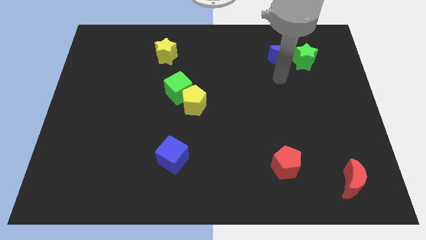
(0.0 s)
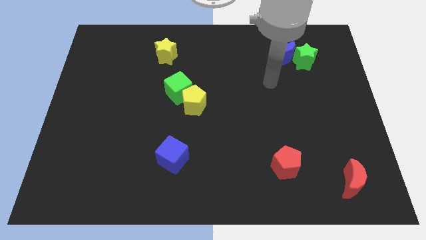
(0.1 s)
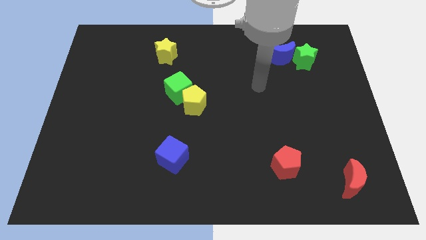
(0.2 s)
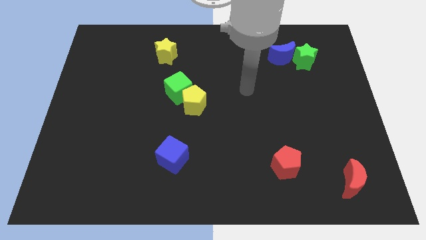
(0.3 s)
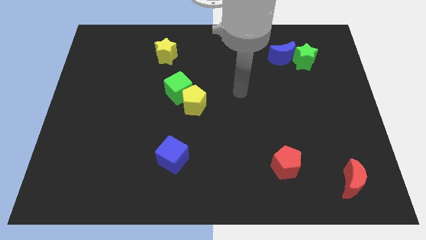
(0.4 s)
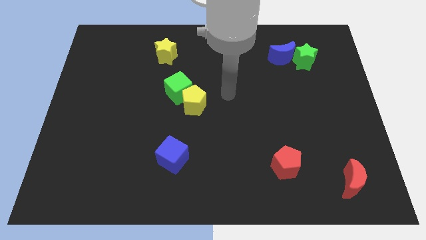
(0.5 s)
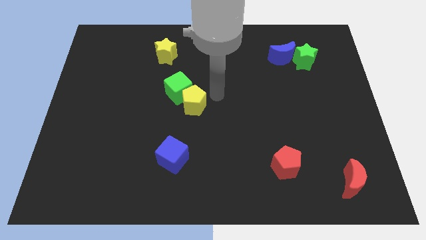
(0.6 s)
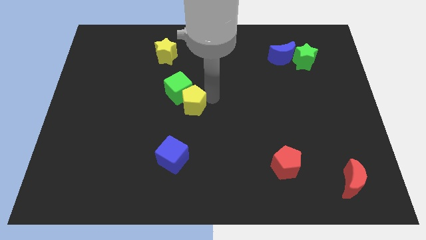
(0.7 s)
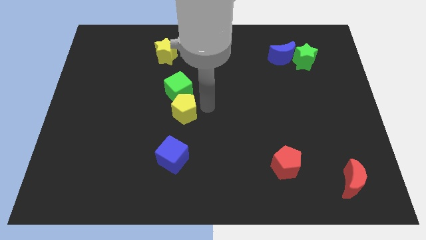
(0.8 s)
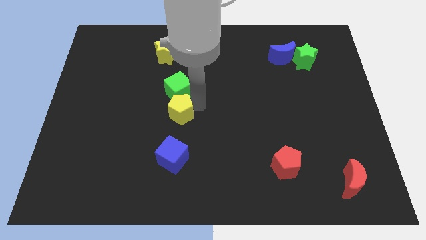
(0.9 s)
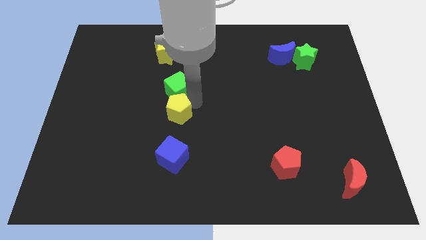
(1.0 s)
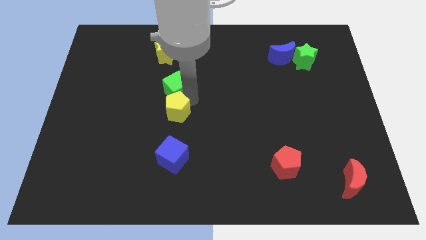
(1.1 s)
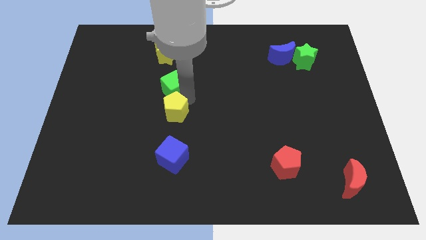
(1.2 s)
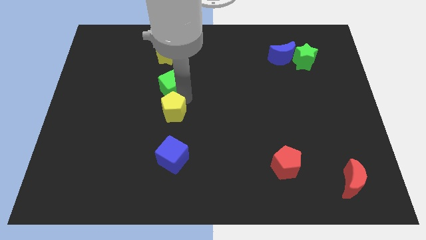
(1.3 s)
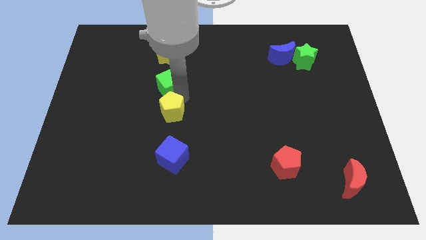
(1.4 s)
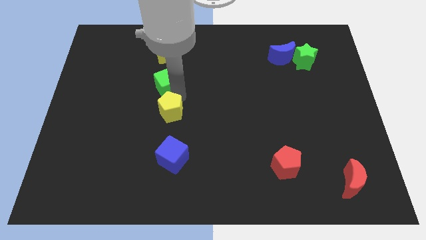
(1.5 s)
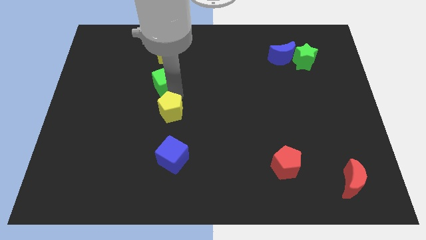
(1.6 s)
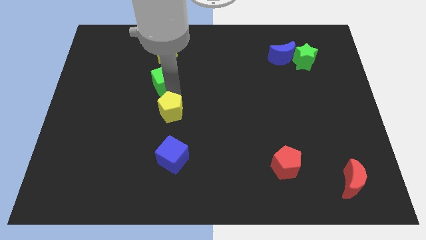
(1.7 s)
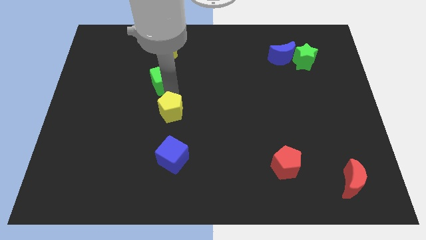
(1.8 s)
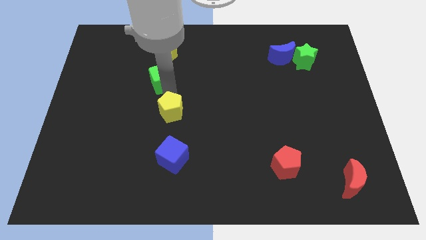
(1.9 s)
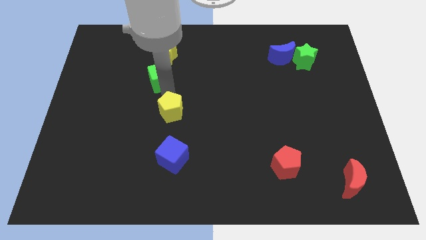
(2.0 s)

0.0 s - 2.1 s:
pull the green cube apart from the yellow pentagon

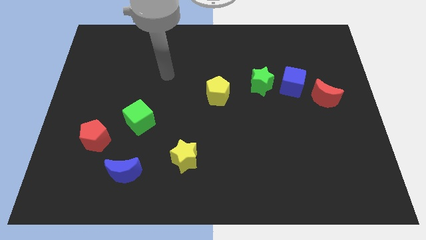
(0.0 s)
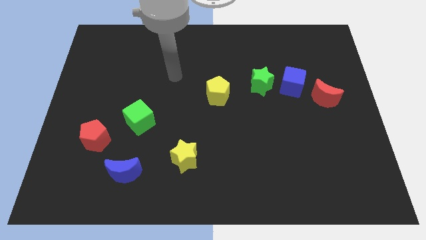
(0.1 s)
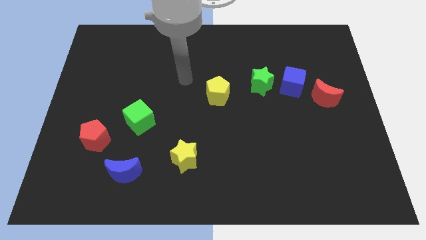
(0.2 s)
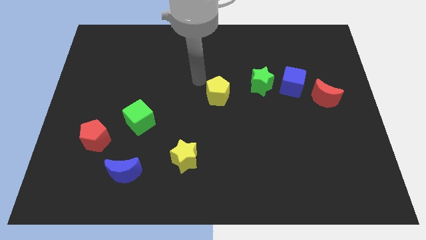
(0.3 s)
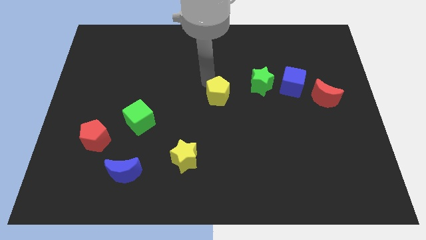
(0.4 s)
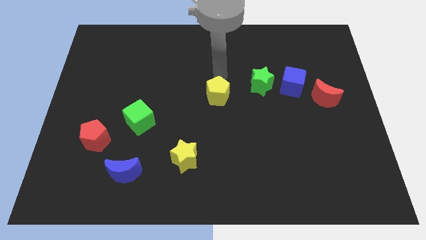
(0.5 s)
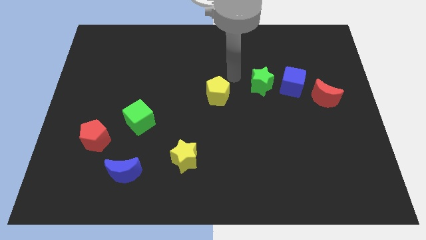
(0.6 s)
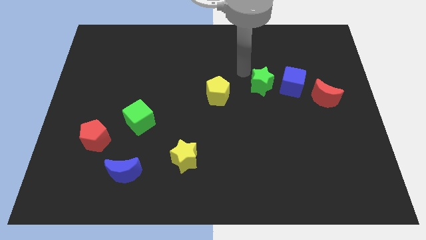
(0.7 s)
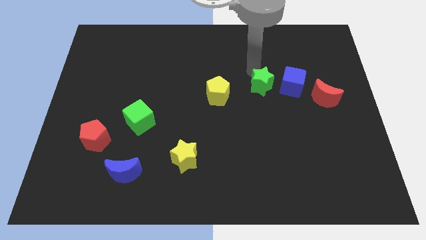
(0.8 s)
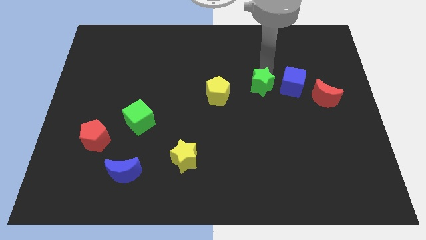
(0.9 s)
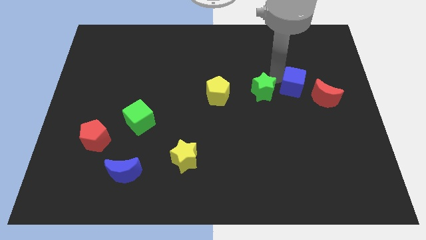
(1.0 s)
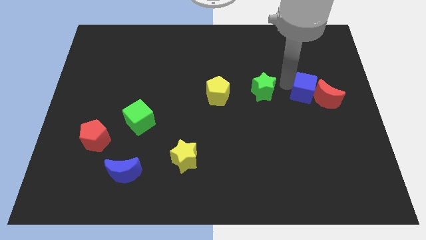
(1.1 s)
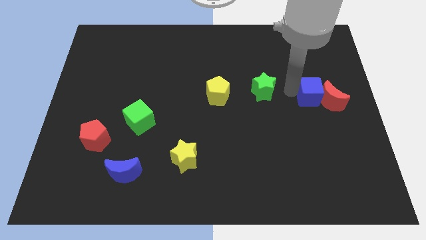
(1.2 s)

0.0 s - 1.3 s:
separate the green star from the blue cube

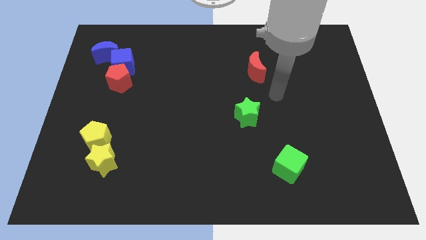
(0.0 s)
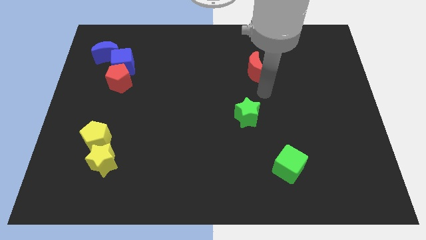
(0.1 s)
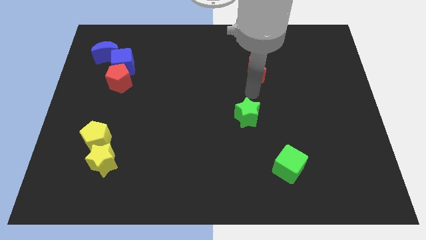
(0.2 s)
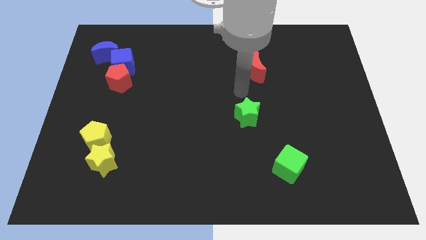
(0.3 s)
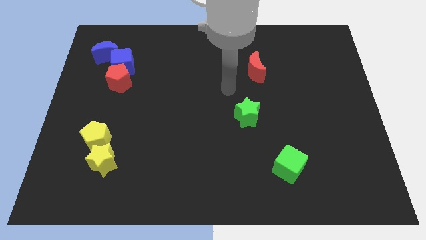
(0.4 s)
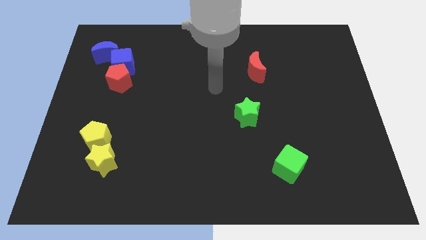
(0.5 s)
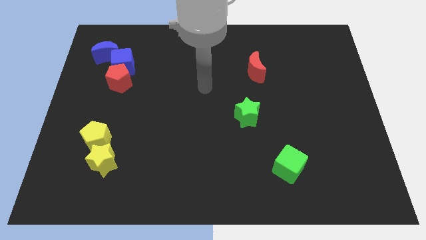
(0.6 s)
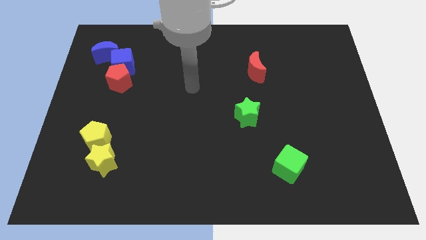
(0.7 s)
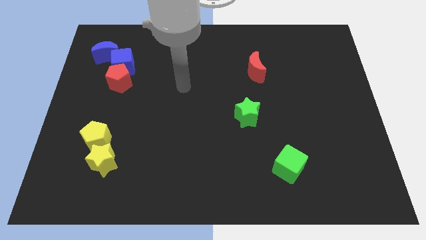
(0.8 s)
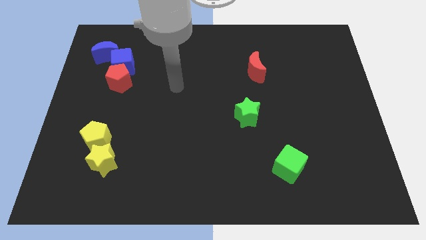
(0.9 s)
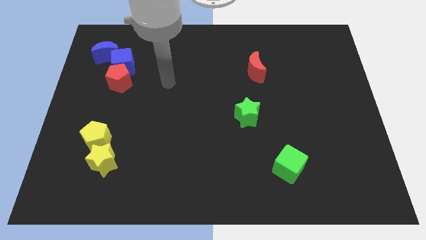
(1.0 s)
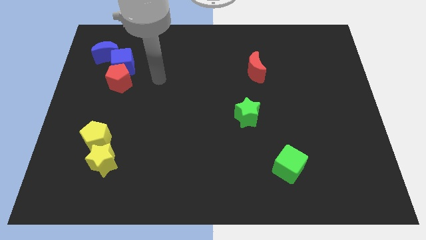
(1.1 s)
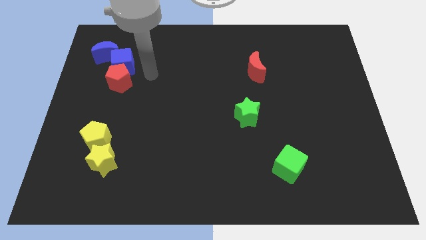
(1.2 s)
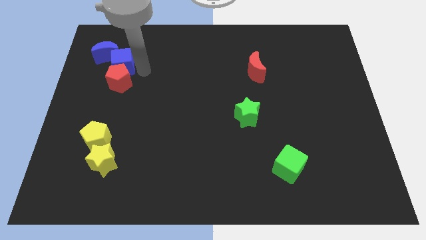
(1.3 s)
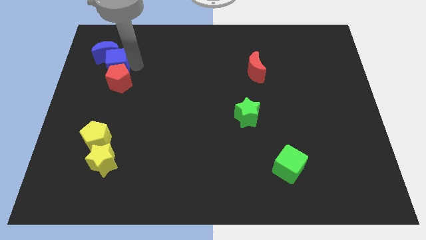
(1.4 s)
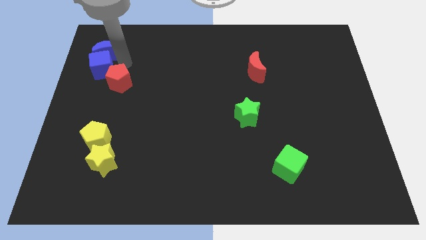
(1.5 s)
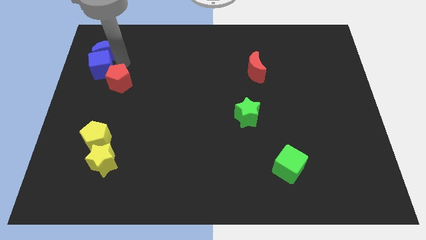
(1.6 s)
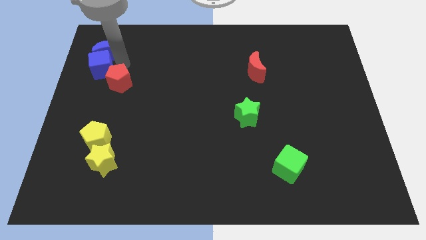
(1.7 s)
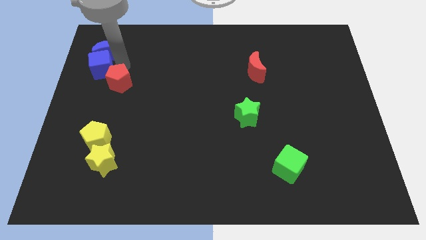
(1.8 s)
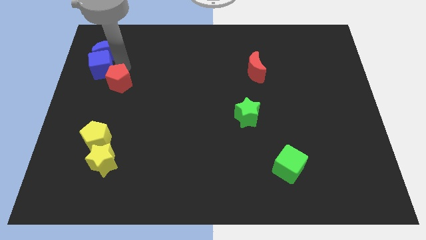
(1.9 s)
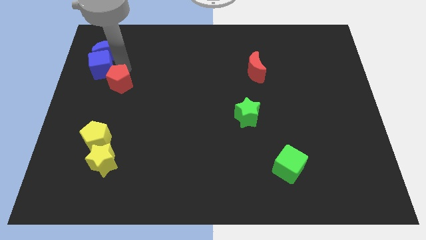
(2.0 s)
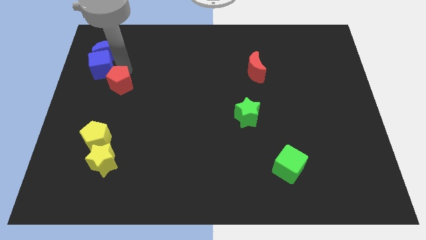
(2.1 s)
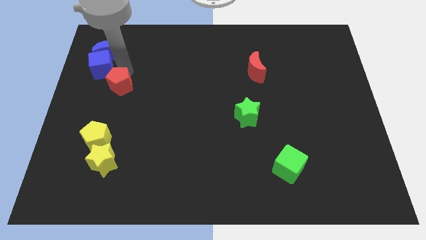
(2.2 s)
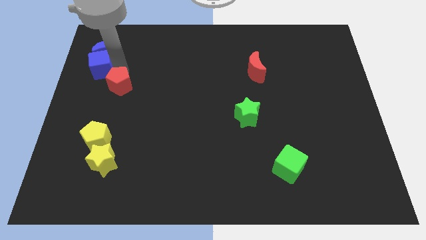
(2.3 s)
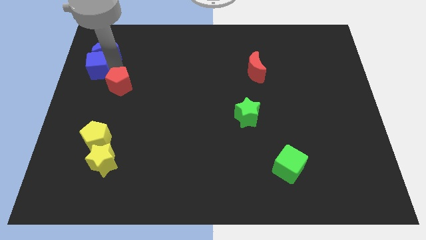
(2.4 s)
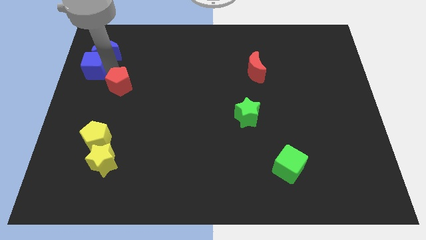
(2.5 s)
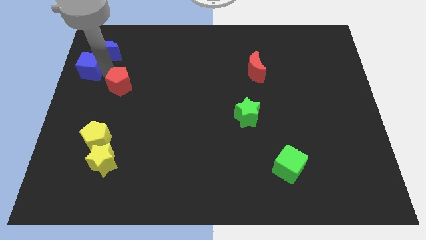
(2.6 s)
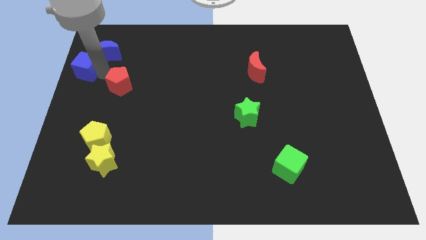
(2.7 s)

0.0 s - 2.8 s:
pull the red pentagon apart from the blue cube

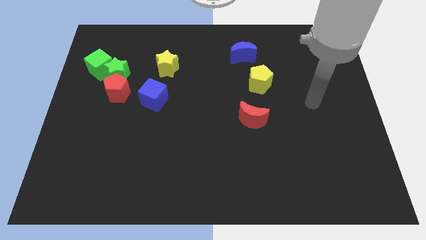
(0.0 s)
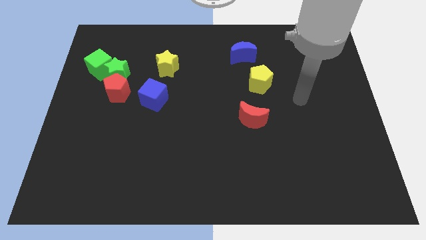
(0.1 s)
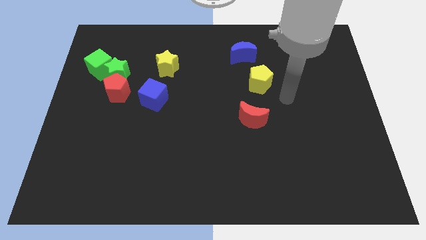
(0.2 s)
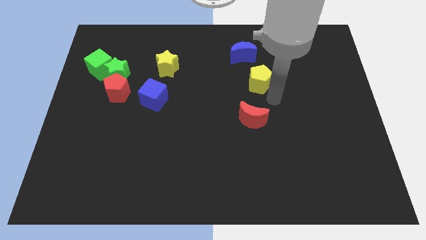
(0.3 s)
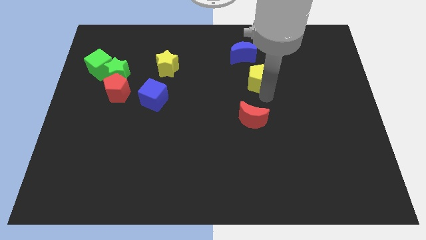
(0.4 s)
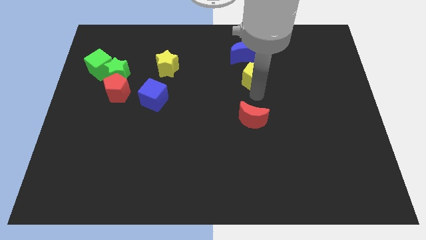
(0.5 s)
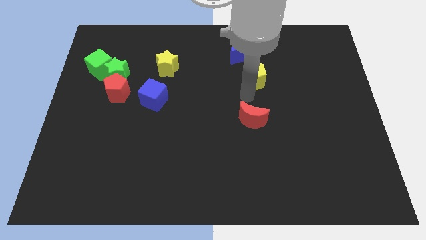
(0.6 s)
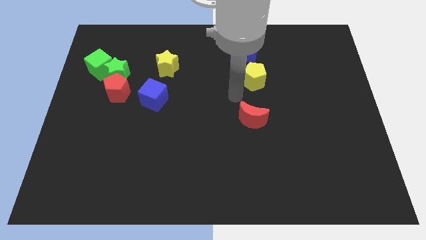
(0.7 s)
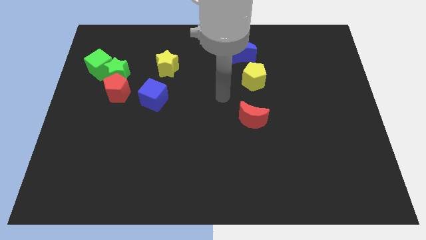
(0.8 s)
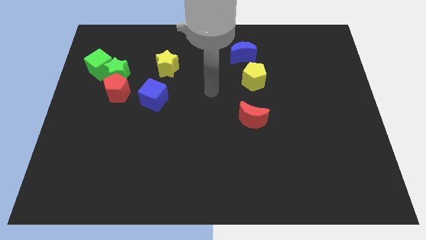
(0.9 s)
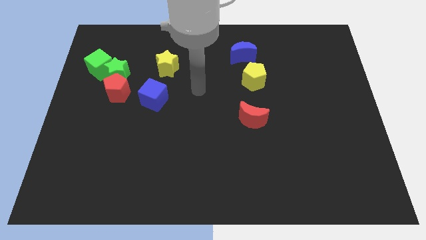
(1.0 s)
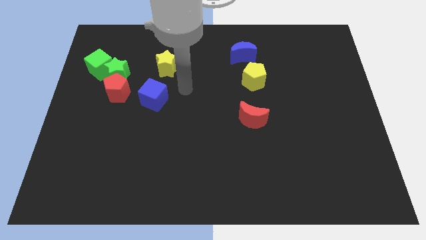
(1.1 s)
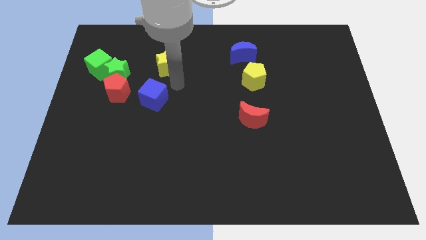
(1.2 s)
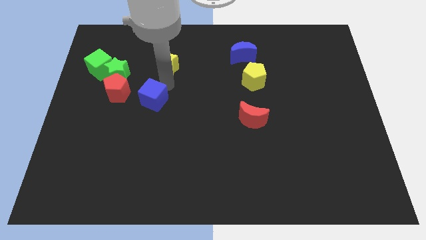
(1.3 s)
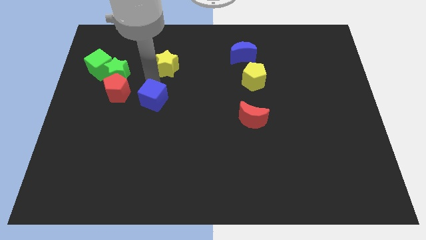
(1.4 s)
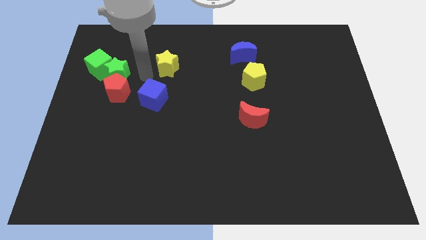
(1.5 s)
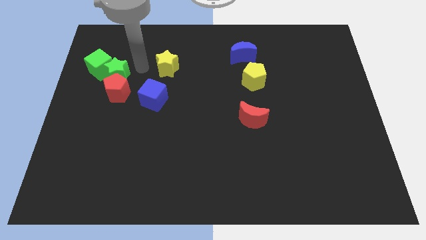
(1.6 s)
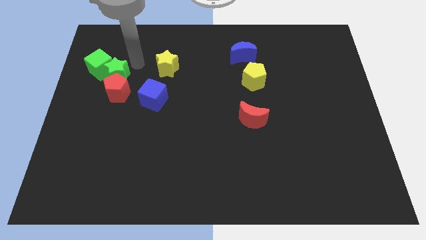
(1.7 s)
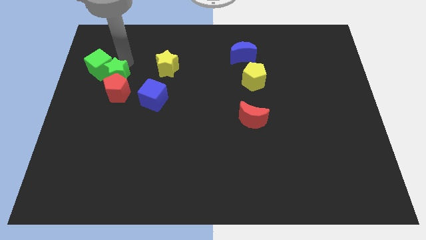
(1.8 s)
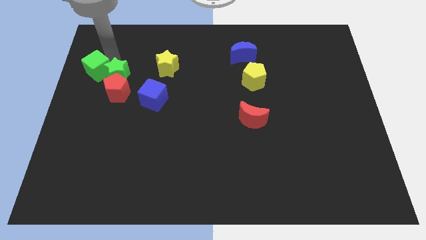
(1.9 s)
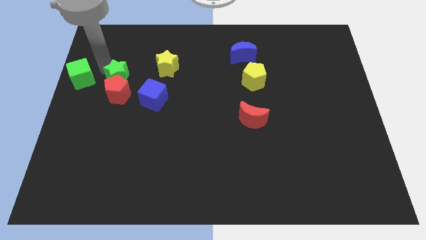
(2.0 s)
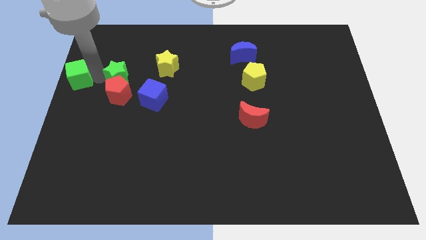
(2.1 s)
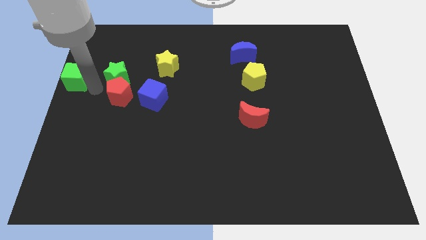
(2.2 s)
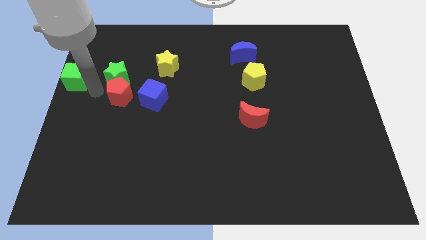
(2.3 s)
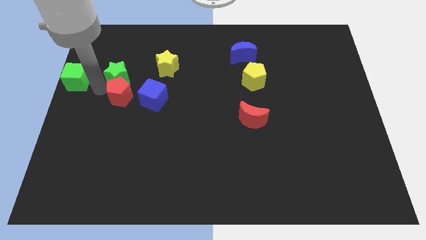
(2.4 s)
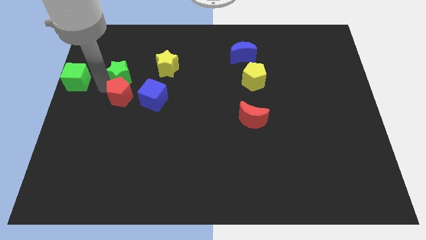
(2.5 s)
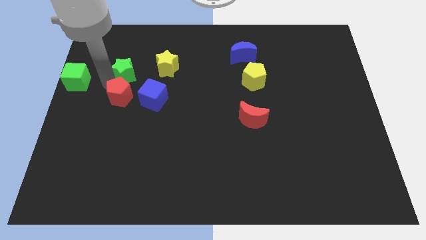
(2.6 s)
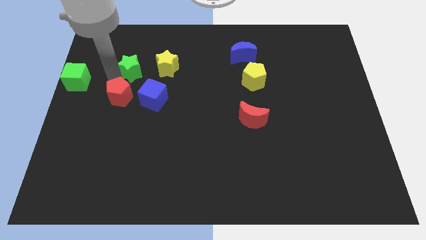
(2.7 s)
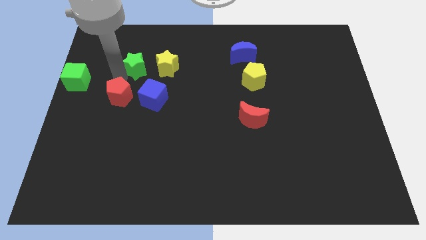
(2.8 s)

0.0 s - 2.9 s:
pull the green star apart from the green cube and red pentagon

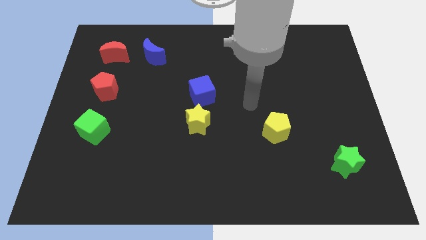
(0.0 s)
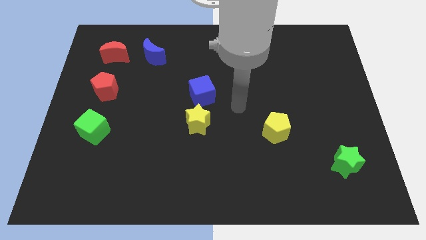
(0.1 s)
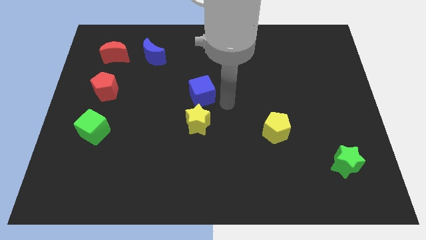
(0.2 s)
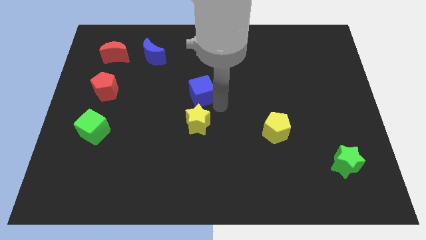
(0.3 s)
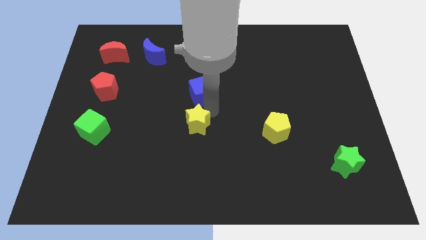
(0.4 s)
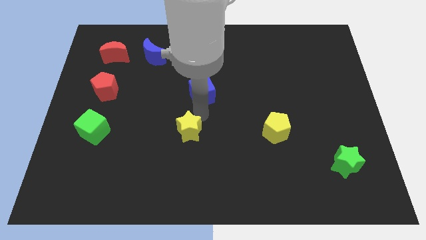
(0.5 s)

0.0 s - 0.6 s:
separate the blue cube from the yellow star
